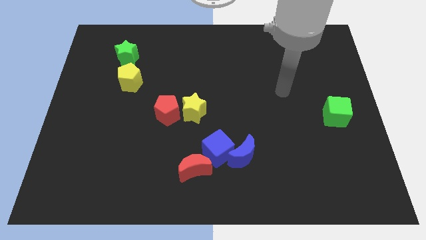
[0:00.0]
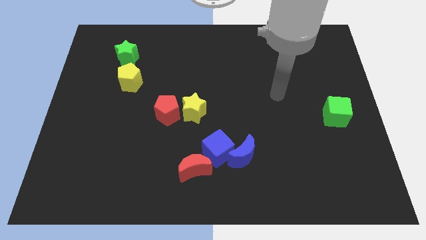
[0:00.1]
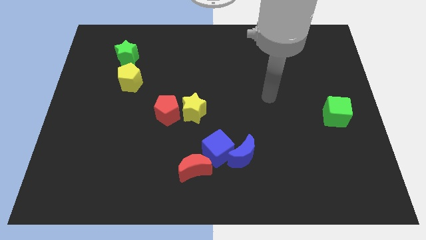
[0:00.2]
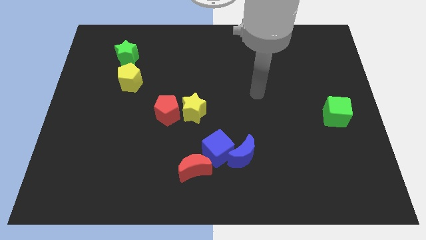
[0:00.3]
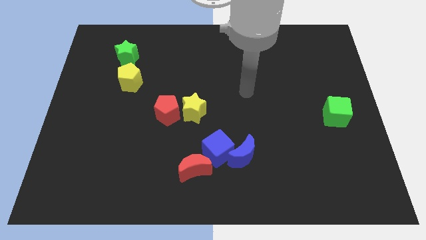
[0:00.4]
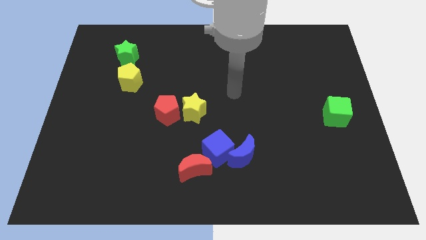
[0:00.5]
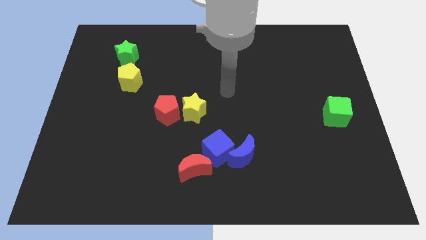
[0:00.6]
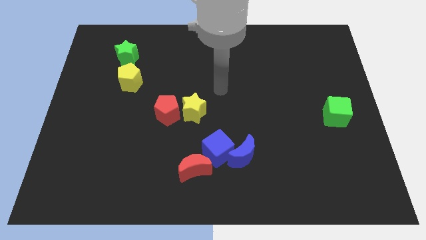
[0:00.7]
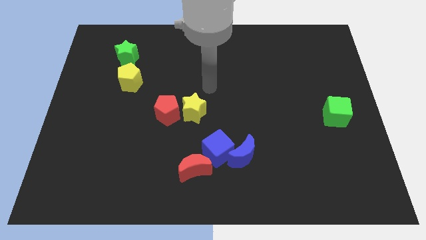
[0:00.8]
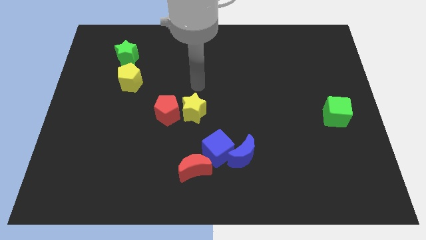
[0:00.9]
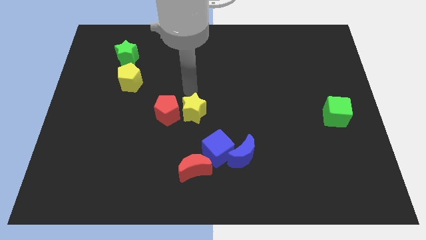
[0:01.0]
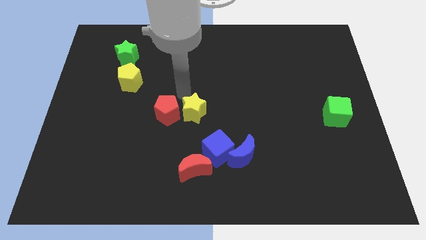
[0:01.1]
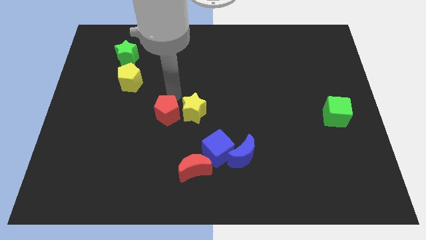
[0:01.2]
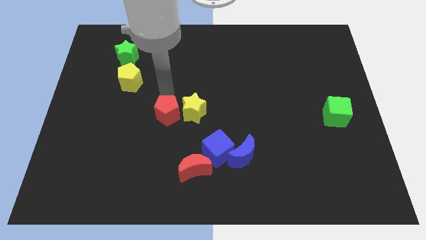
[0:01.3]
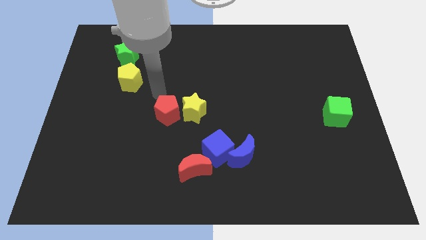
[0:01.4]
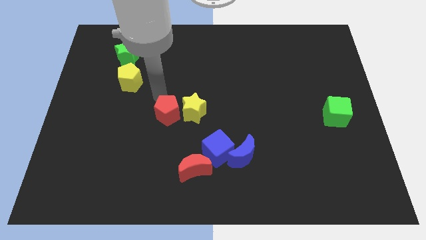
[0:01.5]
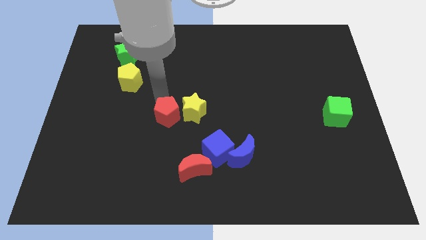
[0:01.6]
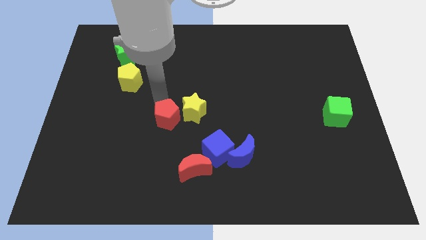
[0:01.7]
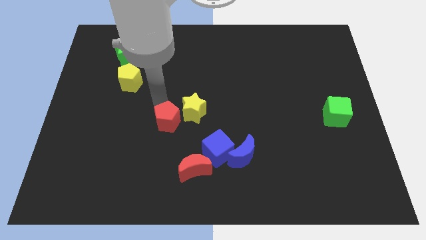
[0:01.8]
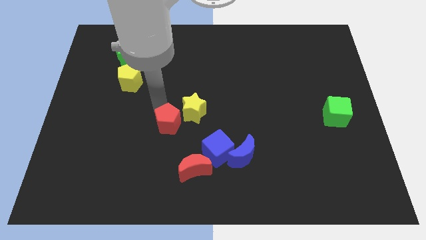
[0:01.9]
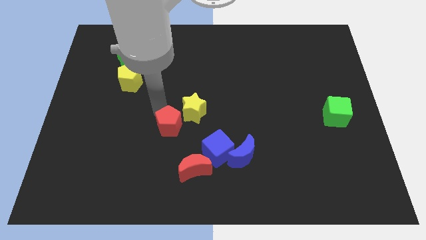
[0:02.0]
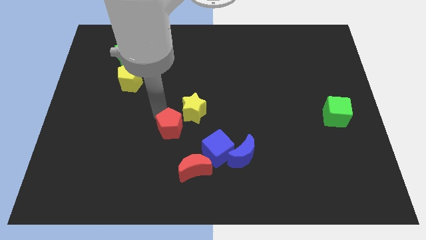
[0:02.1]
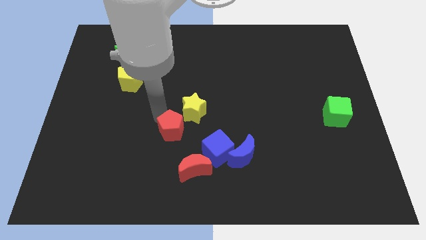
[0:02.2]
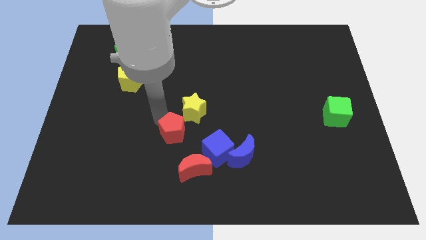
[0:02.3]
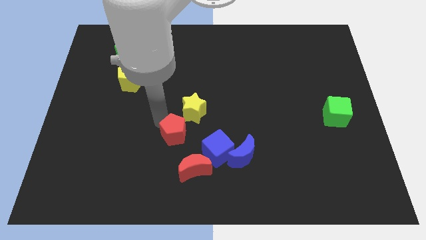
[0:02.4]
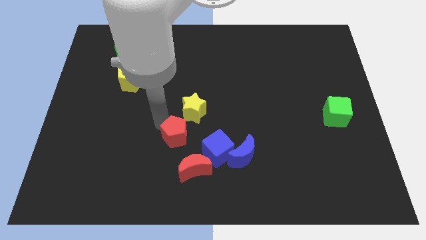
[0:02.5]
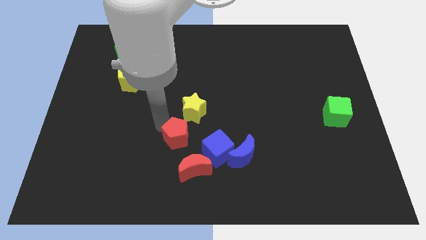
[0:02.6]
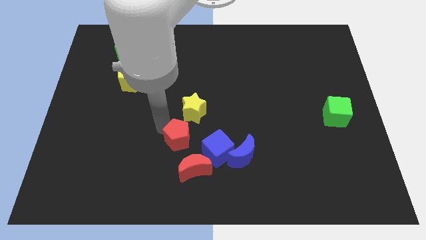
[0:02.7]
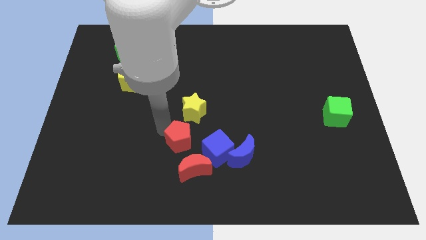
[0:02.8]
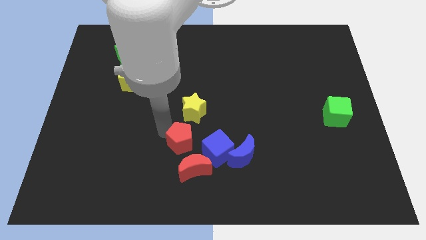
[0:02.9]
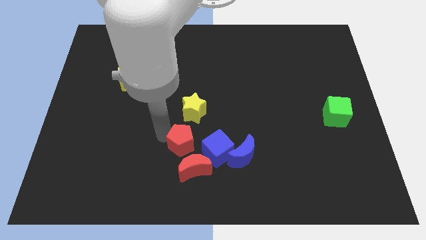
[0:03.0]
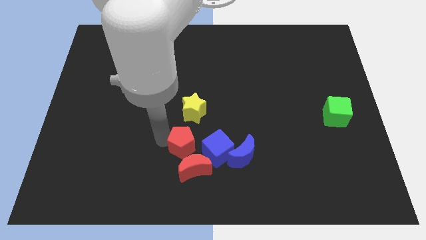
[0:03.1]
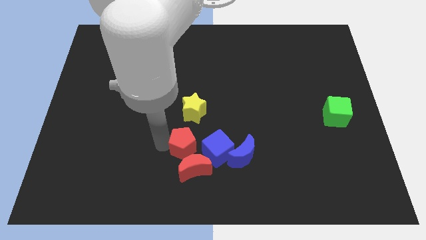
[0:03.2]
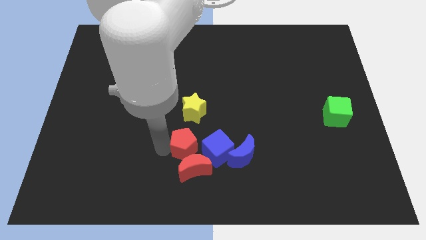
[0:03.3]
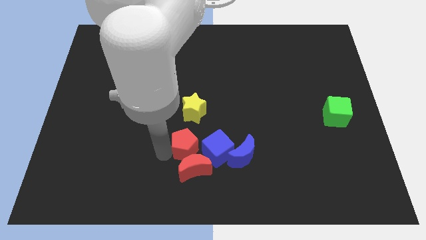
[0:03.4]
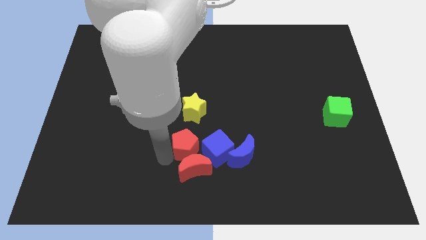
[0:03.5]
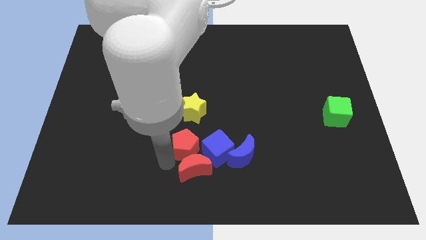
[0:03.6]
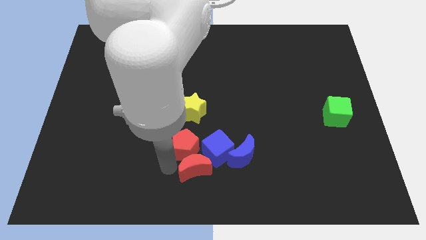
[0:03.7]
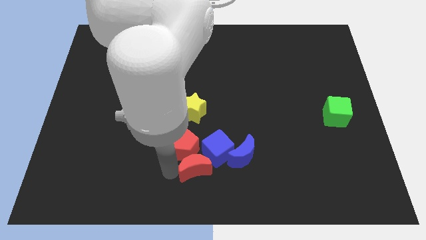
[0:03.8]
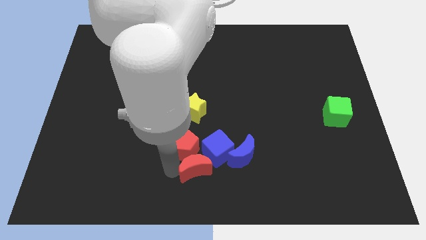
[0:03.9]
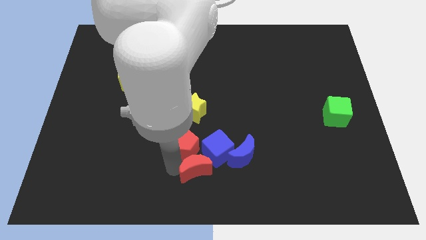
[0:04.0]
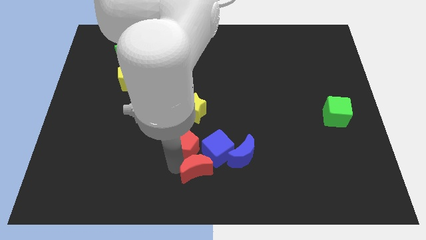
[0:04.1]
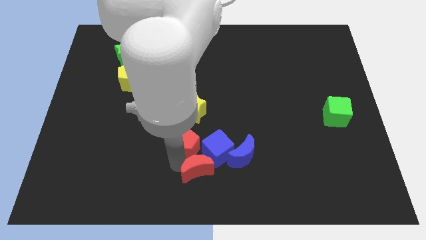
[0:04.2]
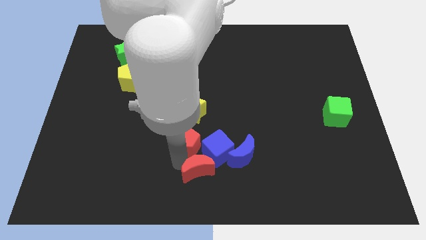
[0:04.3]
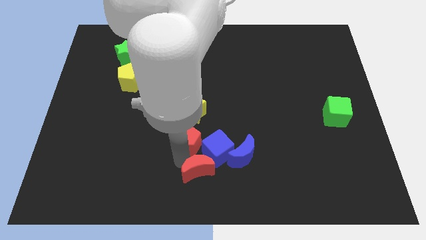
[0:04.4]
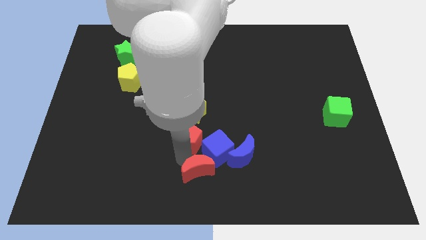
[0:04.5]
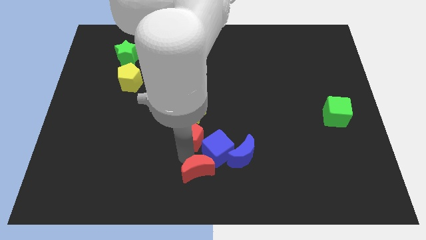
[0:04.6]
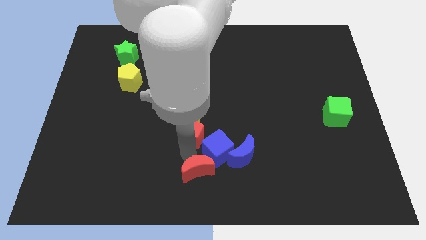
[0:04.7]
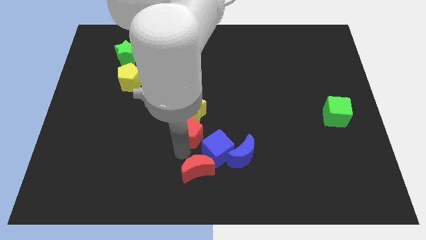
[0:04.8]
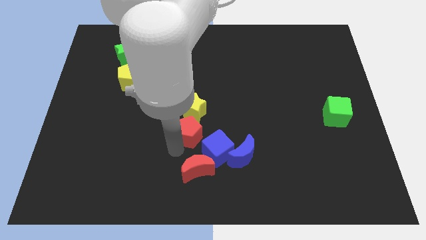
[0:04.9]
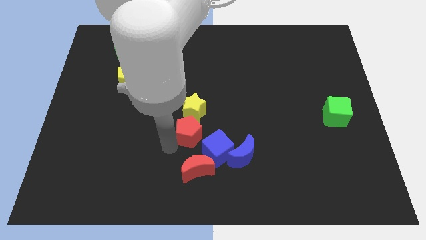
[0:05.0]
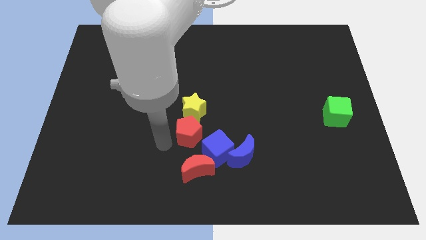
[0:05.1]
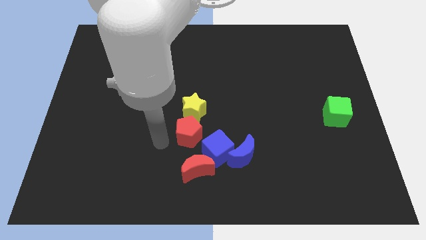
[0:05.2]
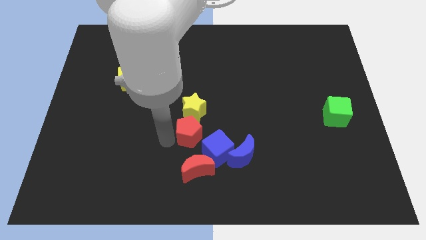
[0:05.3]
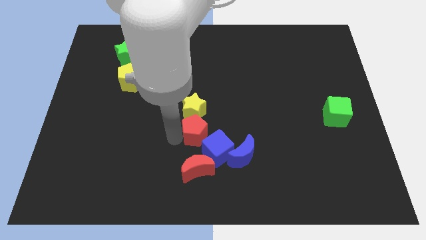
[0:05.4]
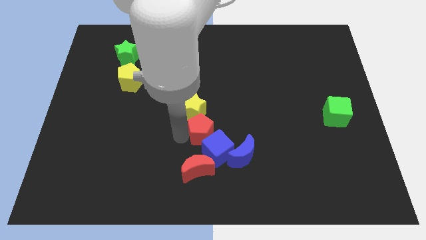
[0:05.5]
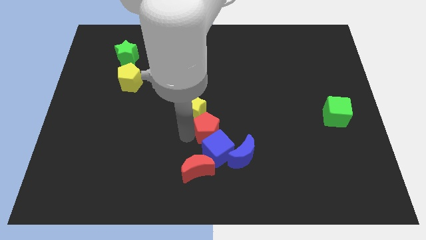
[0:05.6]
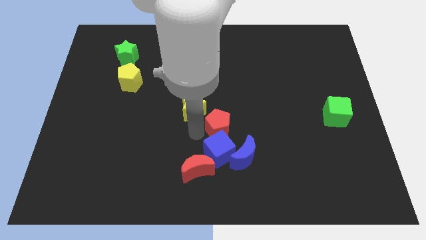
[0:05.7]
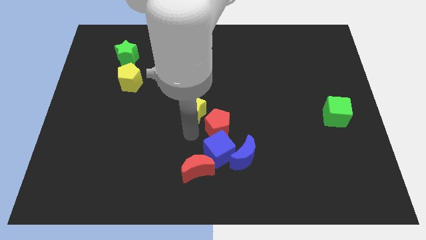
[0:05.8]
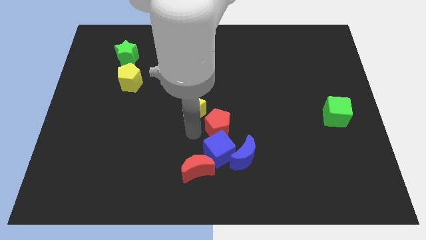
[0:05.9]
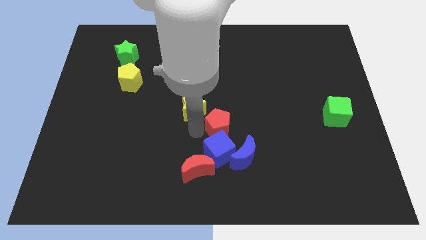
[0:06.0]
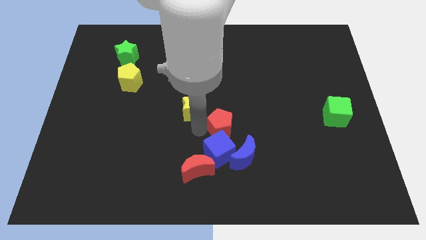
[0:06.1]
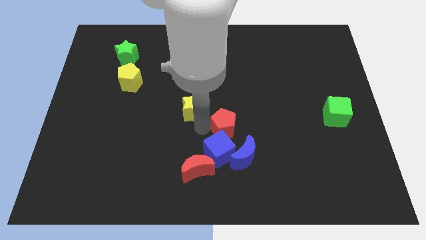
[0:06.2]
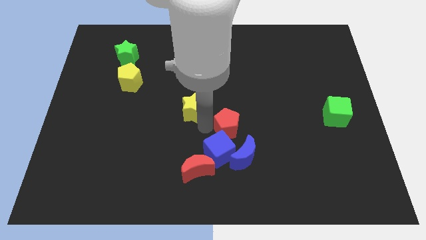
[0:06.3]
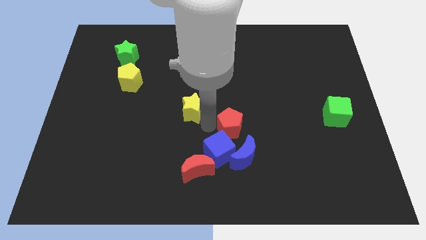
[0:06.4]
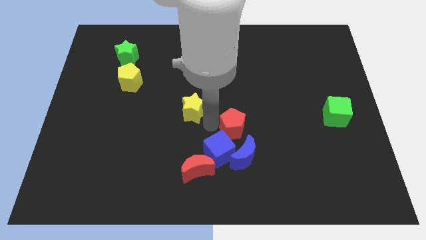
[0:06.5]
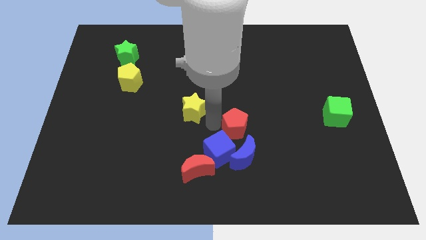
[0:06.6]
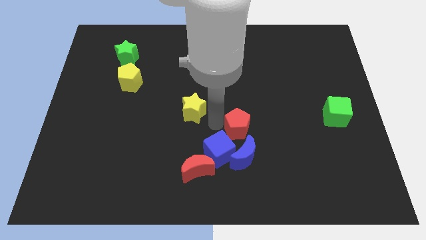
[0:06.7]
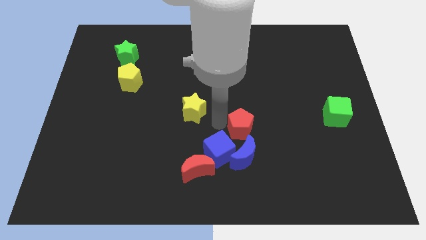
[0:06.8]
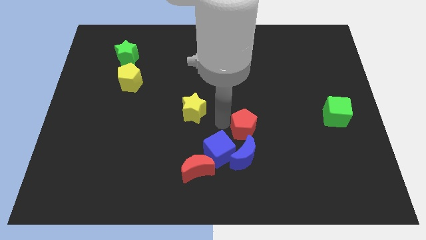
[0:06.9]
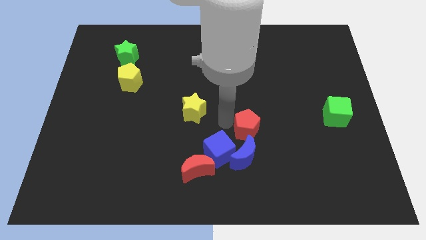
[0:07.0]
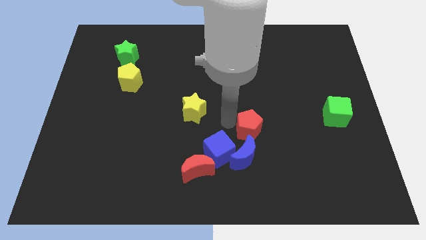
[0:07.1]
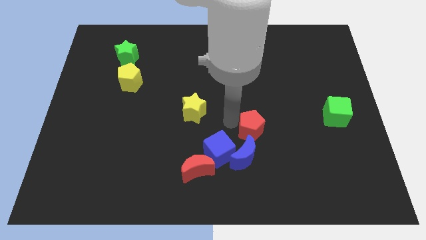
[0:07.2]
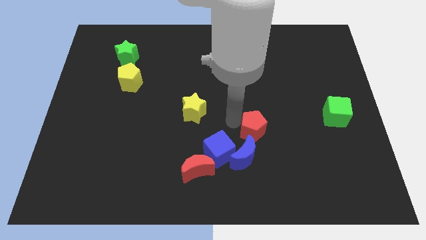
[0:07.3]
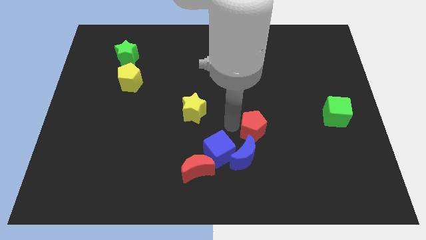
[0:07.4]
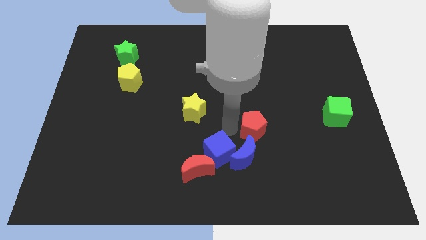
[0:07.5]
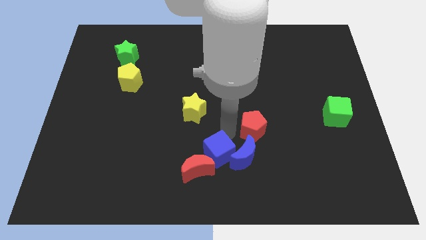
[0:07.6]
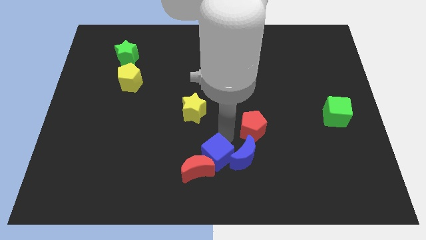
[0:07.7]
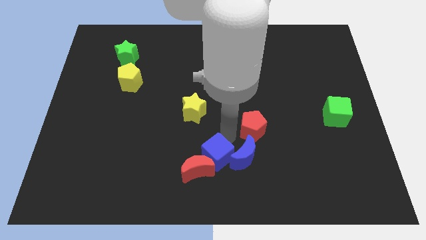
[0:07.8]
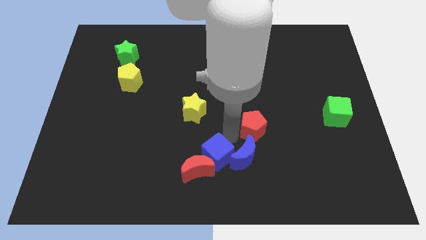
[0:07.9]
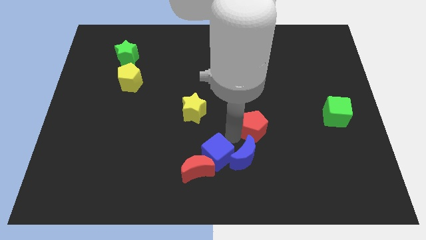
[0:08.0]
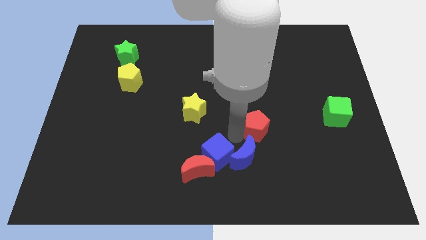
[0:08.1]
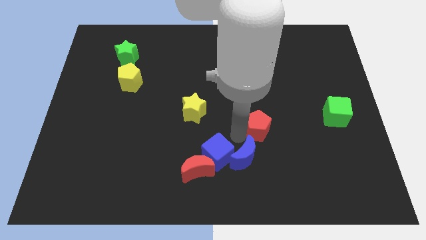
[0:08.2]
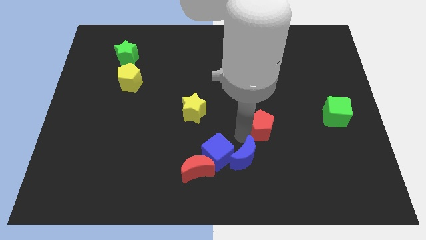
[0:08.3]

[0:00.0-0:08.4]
slide the red pentagon right

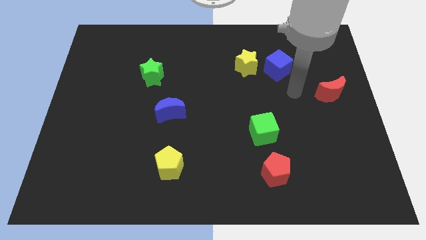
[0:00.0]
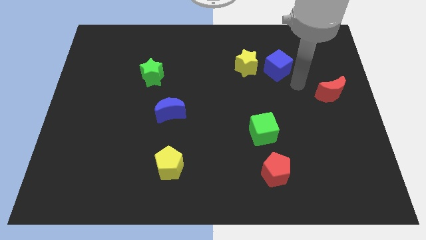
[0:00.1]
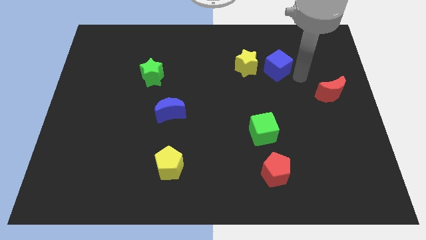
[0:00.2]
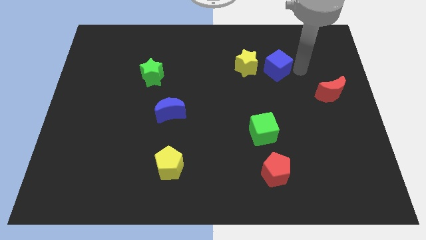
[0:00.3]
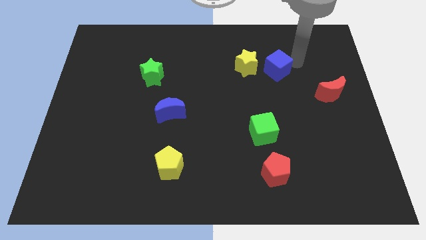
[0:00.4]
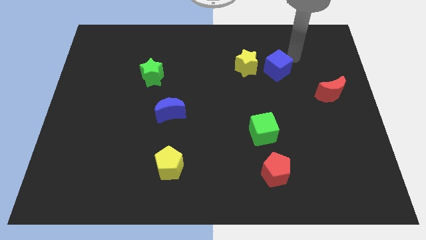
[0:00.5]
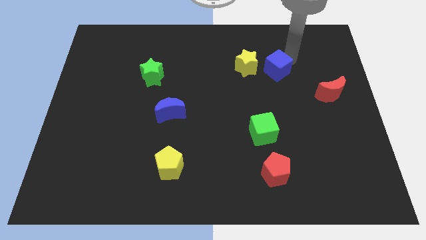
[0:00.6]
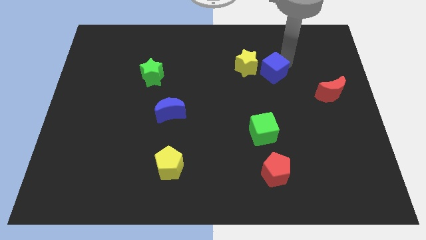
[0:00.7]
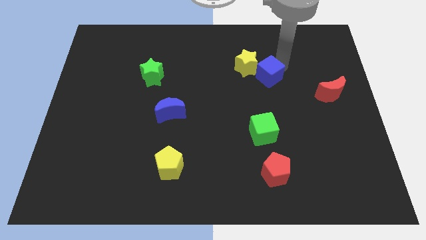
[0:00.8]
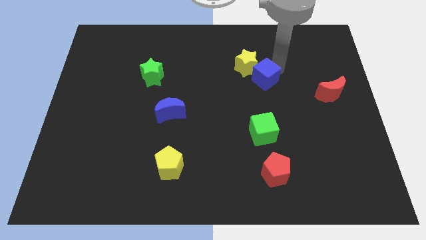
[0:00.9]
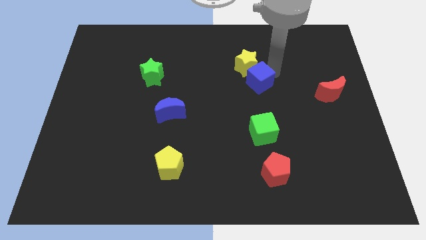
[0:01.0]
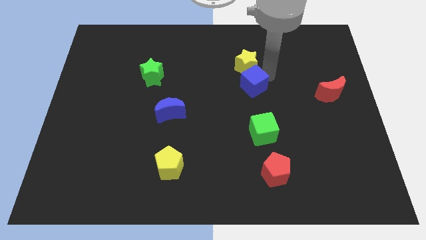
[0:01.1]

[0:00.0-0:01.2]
slide the blue cube a little diagonally down and left
